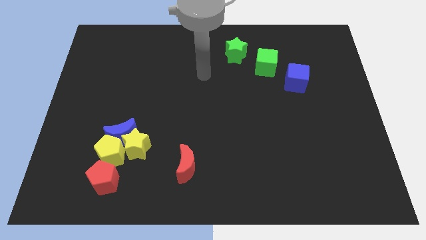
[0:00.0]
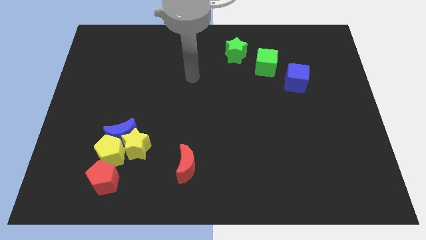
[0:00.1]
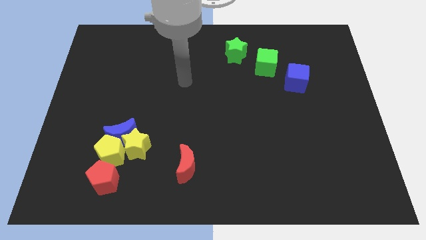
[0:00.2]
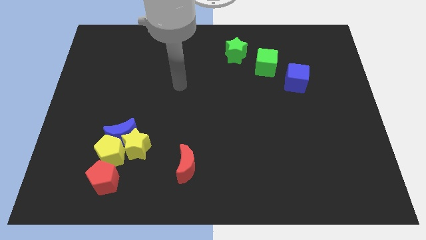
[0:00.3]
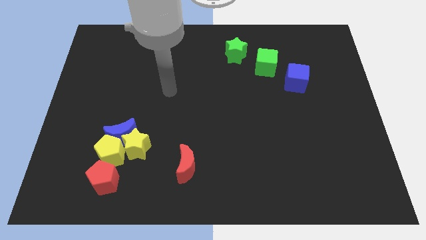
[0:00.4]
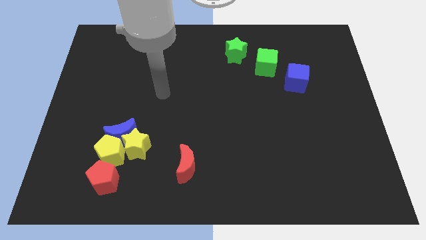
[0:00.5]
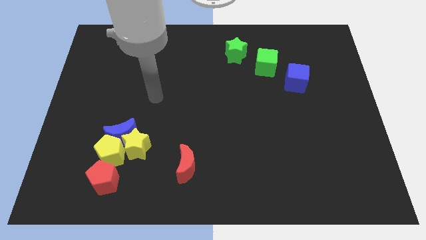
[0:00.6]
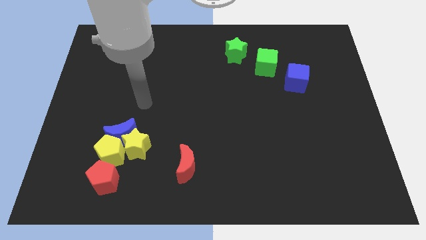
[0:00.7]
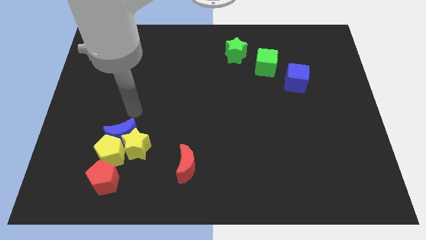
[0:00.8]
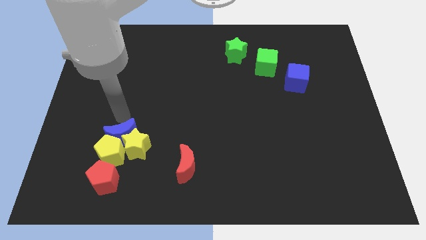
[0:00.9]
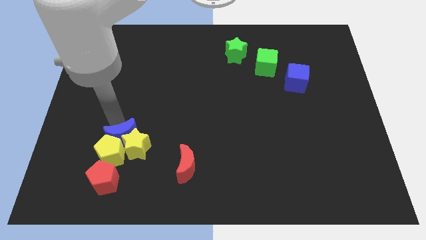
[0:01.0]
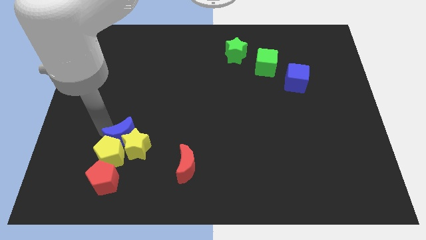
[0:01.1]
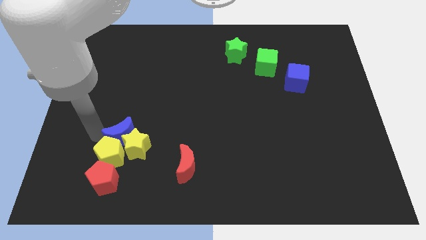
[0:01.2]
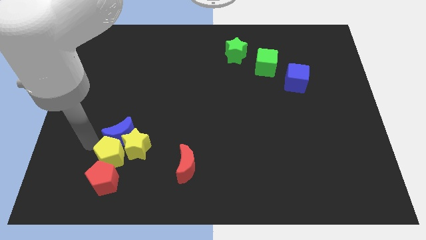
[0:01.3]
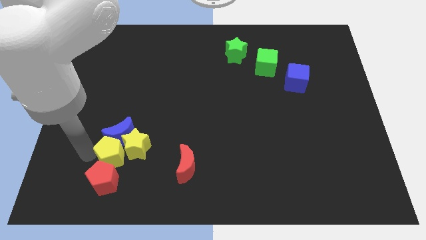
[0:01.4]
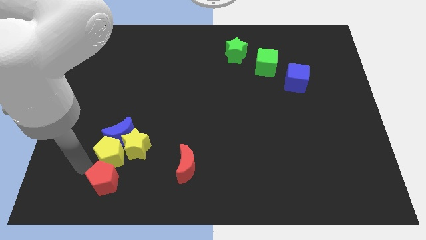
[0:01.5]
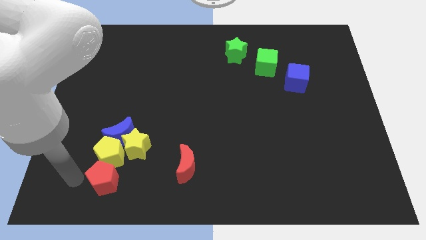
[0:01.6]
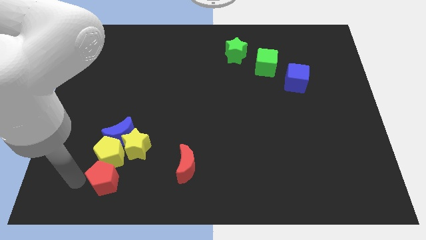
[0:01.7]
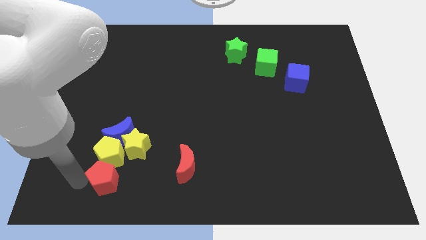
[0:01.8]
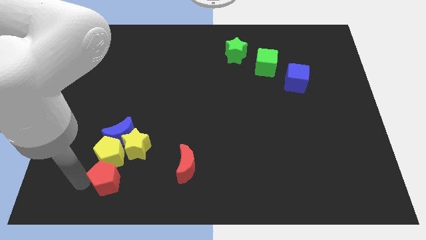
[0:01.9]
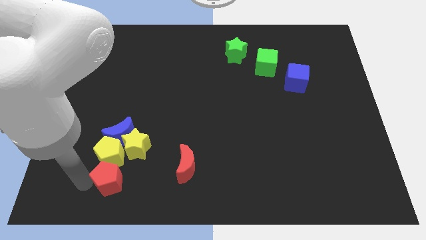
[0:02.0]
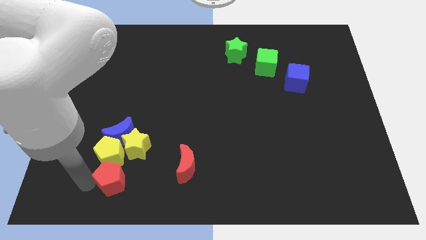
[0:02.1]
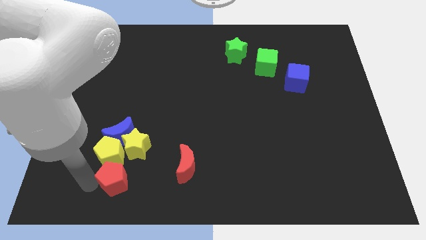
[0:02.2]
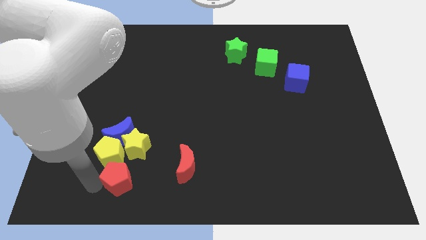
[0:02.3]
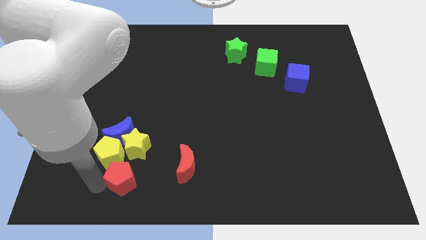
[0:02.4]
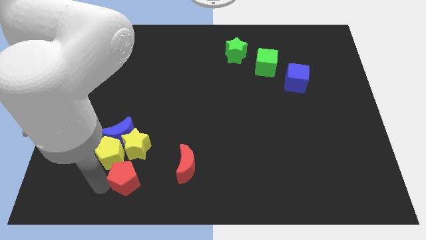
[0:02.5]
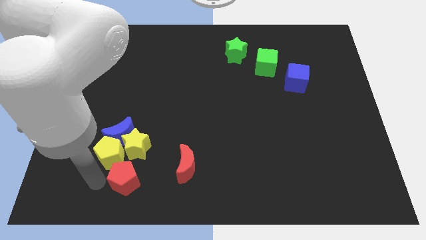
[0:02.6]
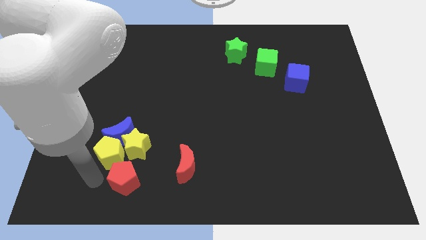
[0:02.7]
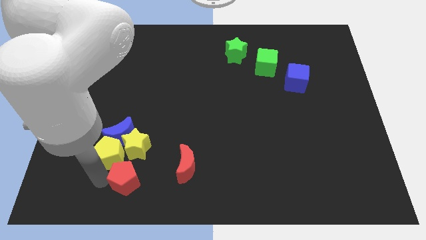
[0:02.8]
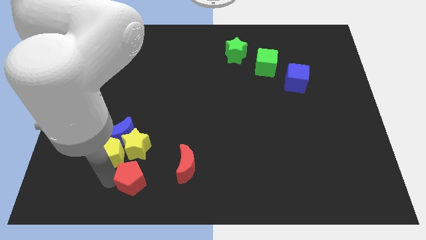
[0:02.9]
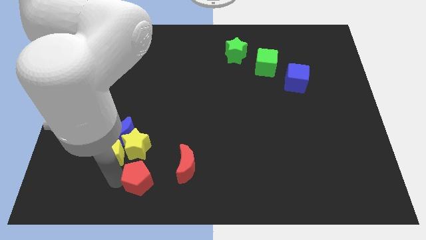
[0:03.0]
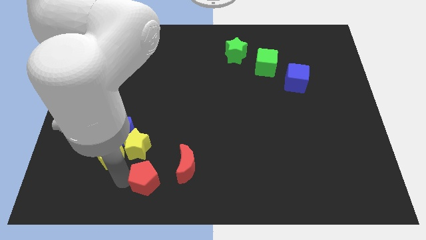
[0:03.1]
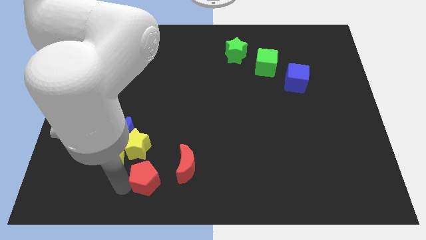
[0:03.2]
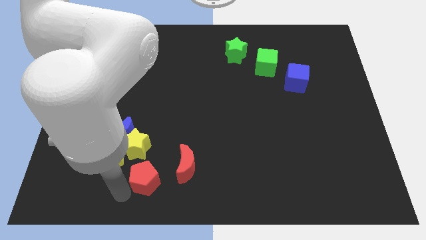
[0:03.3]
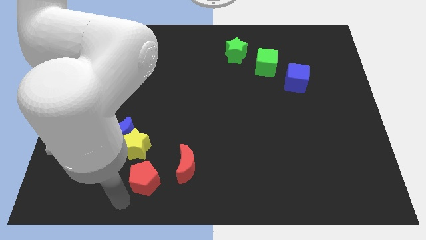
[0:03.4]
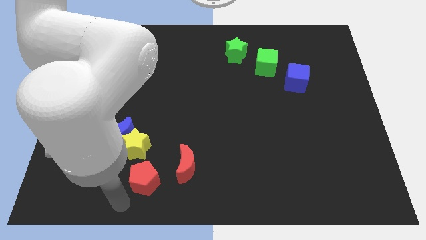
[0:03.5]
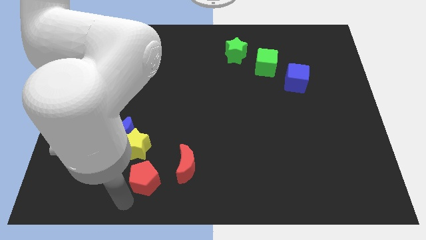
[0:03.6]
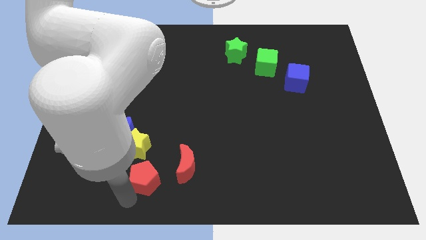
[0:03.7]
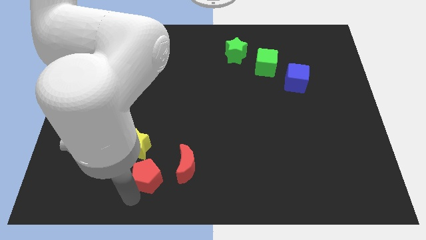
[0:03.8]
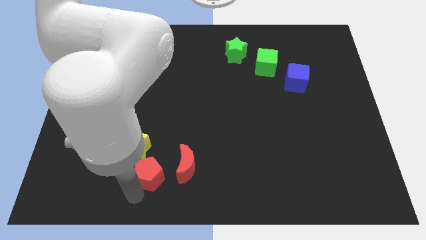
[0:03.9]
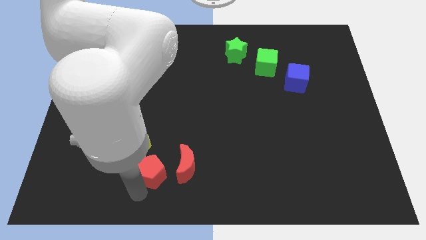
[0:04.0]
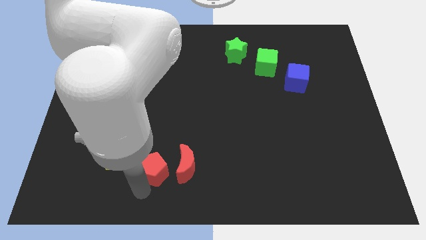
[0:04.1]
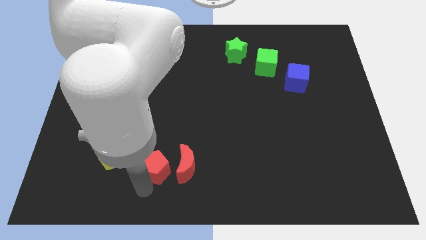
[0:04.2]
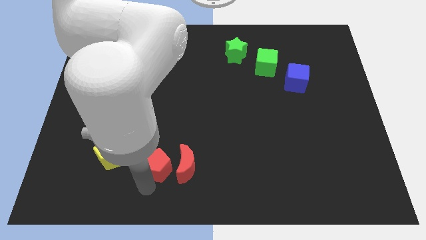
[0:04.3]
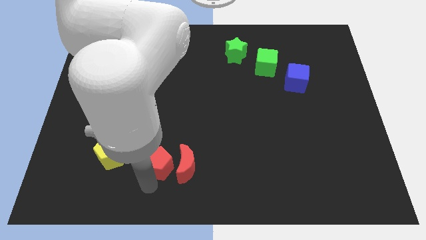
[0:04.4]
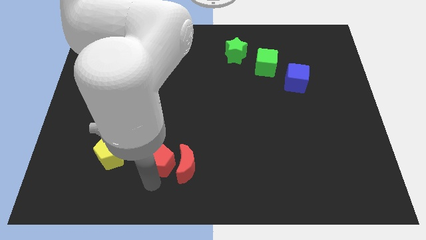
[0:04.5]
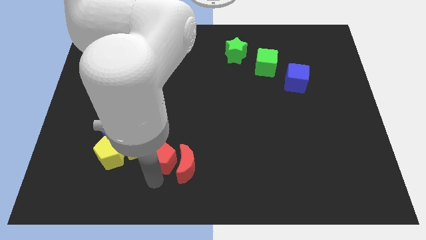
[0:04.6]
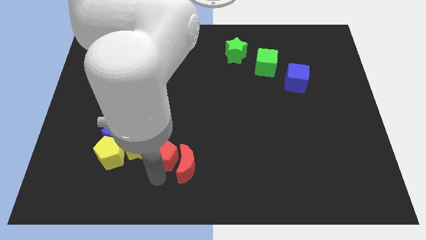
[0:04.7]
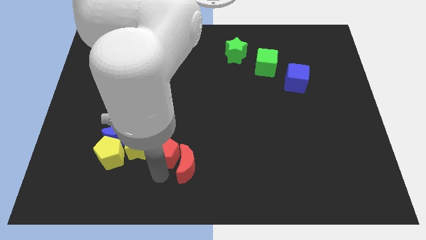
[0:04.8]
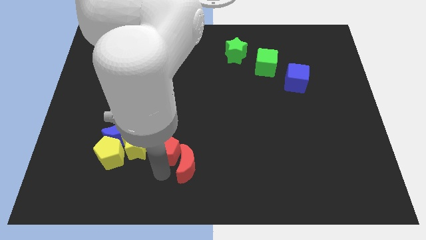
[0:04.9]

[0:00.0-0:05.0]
push the red pentagon above the red moon

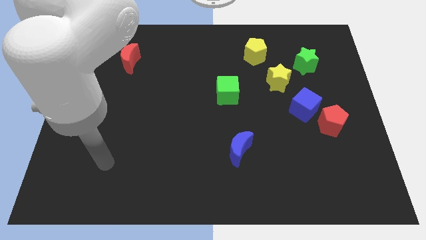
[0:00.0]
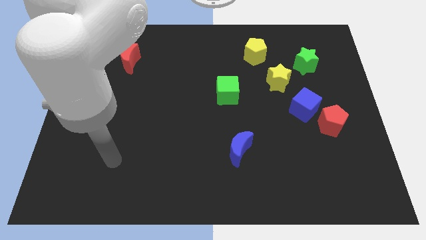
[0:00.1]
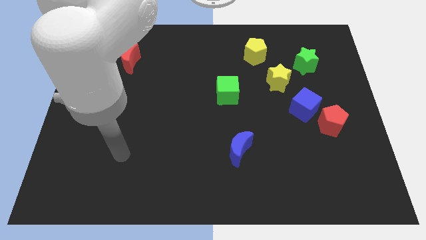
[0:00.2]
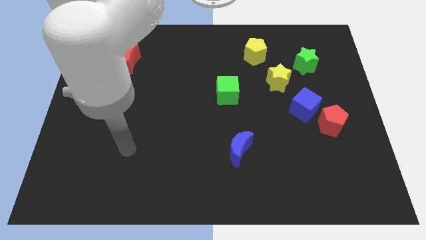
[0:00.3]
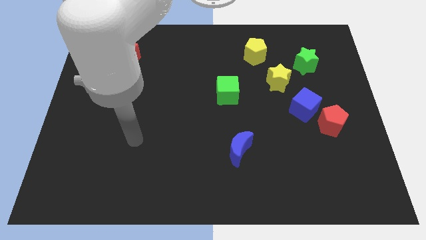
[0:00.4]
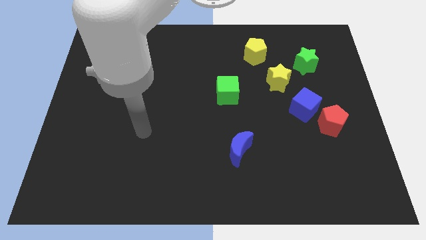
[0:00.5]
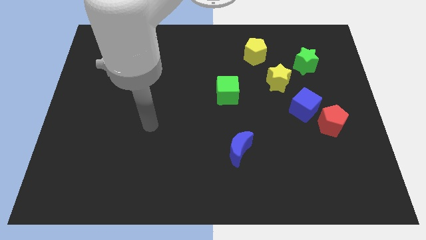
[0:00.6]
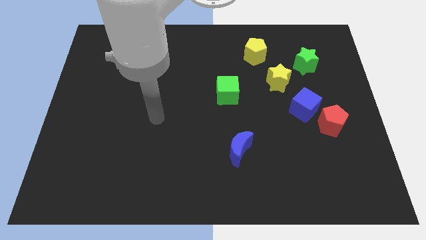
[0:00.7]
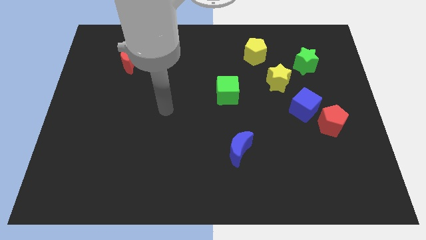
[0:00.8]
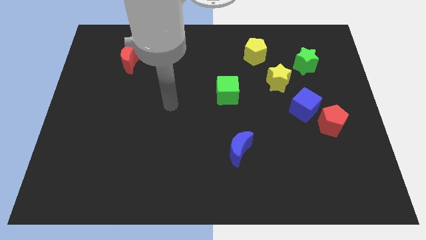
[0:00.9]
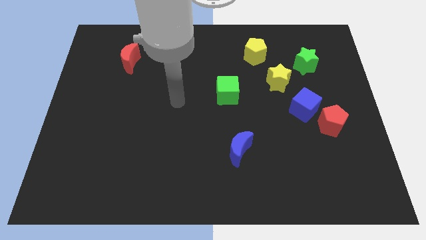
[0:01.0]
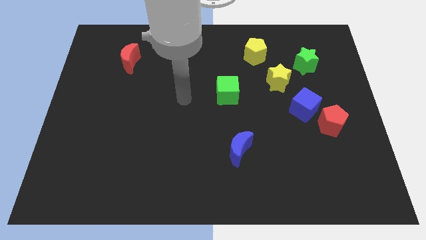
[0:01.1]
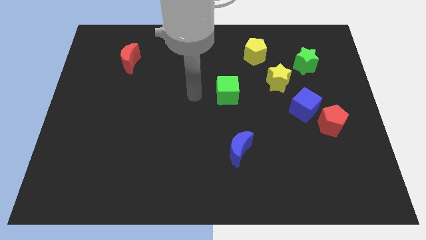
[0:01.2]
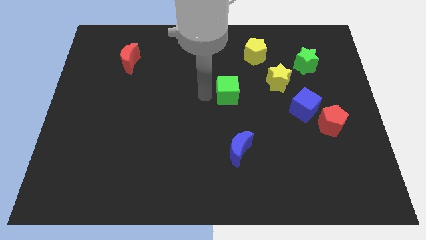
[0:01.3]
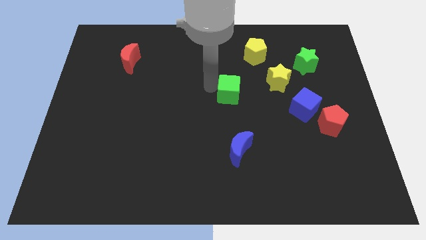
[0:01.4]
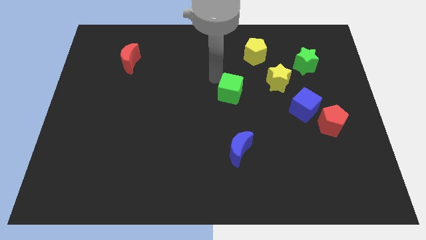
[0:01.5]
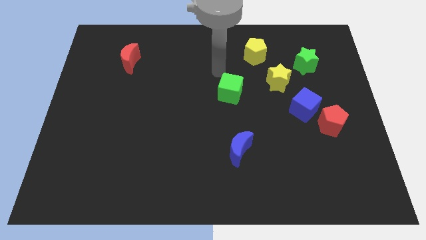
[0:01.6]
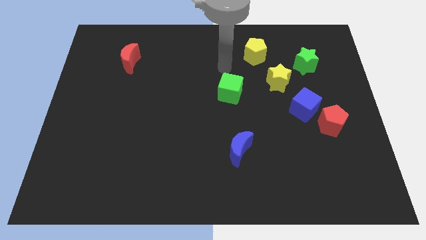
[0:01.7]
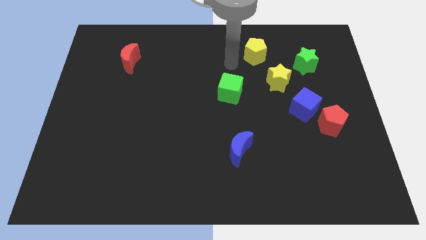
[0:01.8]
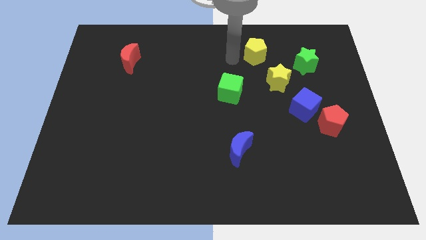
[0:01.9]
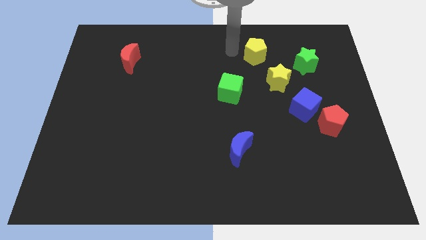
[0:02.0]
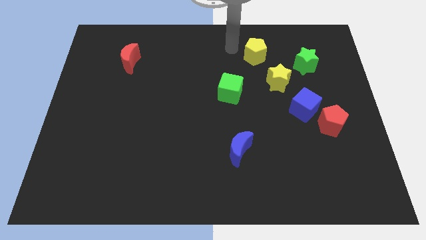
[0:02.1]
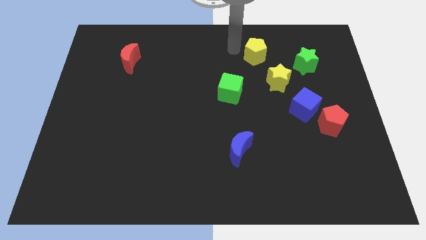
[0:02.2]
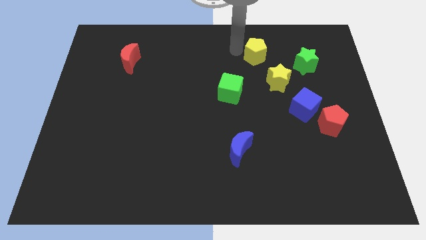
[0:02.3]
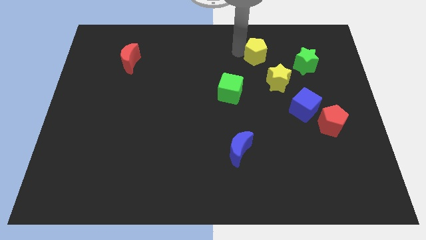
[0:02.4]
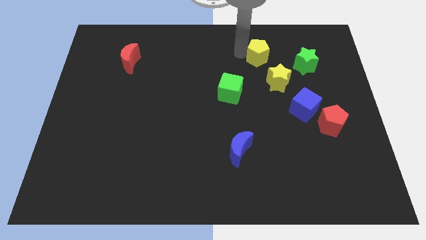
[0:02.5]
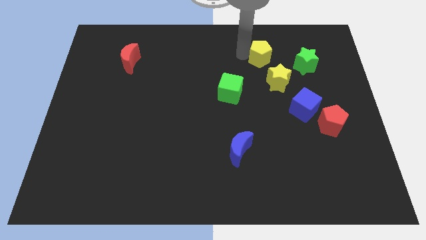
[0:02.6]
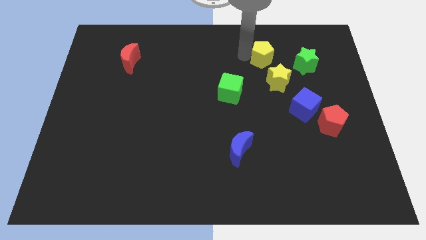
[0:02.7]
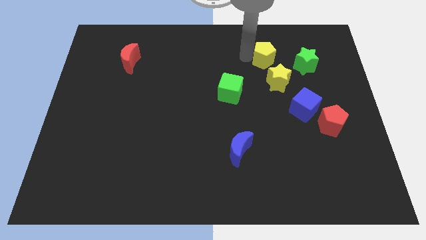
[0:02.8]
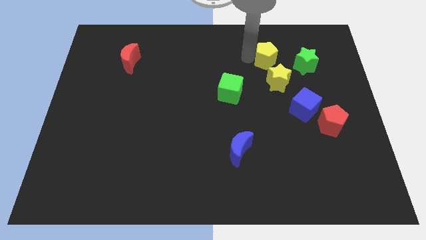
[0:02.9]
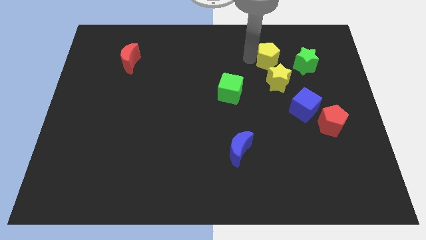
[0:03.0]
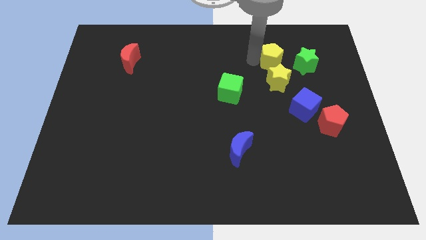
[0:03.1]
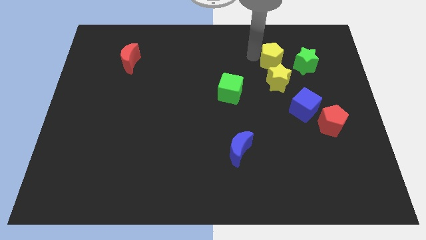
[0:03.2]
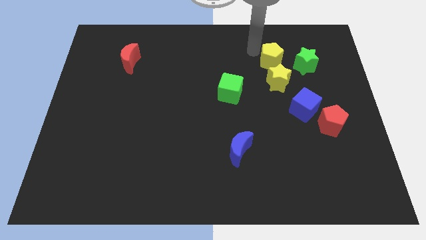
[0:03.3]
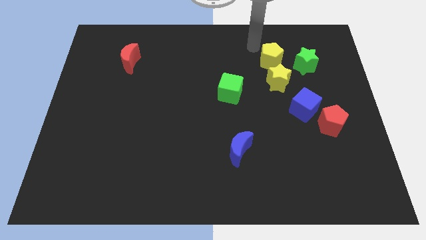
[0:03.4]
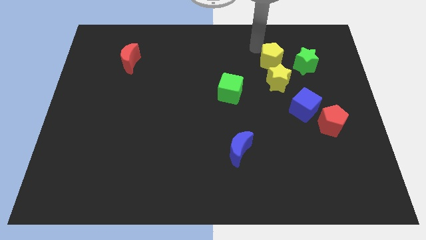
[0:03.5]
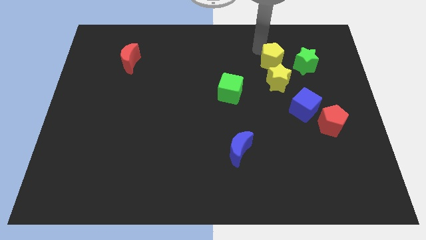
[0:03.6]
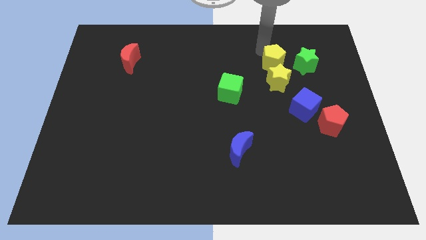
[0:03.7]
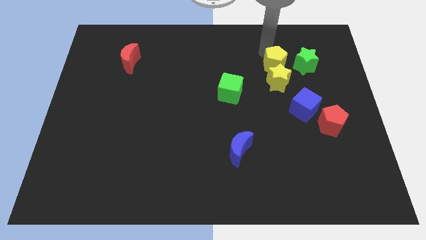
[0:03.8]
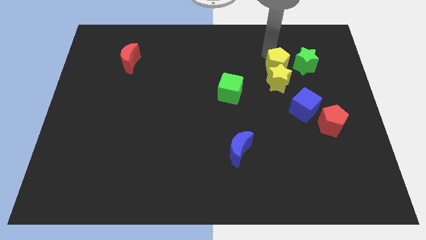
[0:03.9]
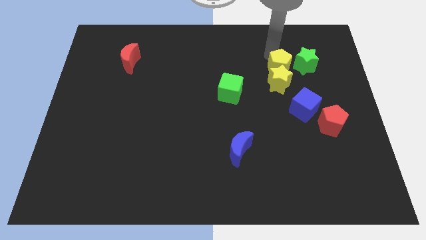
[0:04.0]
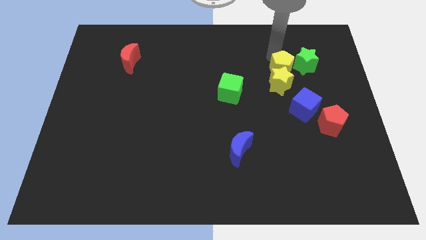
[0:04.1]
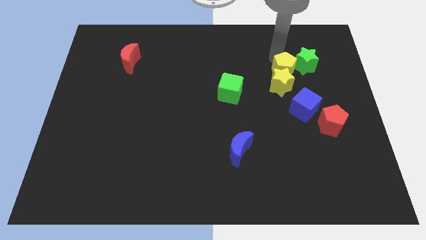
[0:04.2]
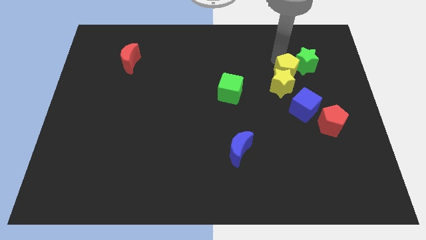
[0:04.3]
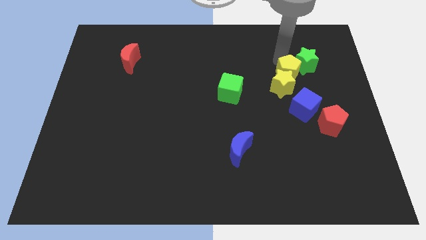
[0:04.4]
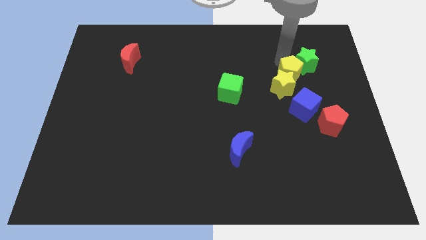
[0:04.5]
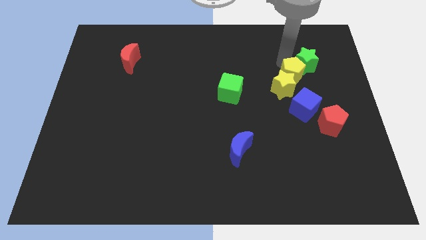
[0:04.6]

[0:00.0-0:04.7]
slide the yellow pentagon just right of the yellow star
